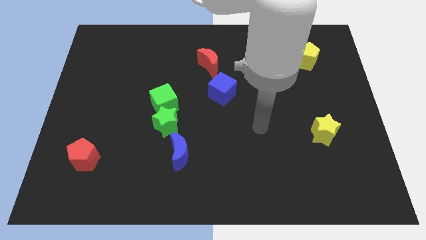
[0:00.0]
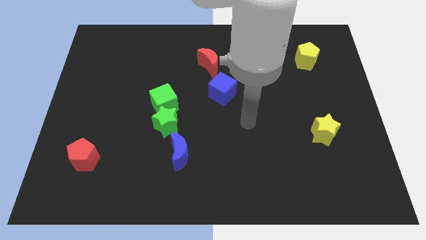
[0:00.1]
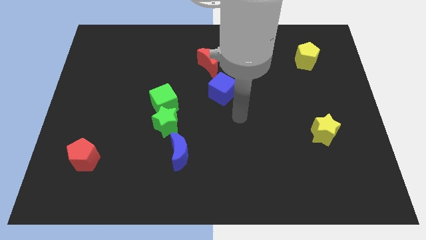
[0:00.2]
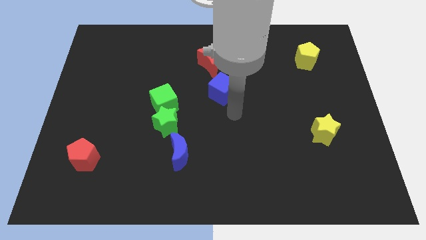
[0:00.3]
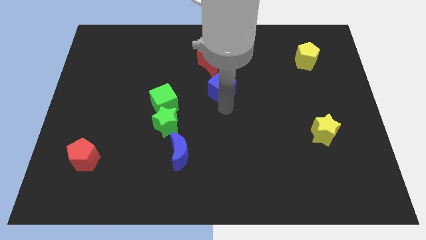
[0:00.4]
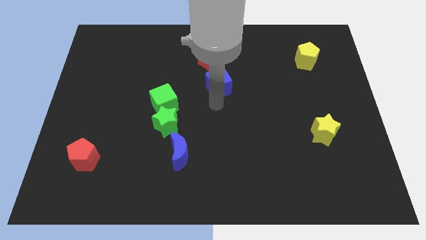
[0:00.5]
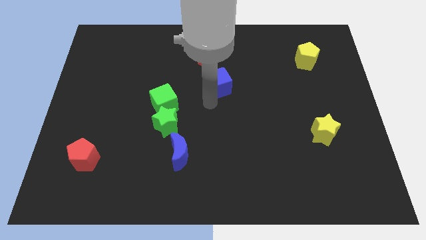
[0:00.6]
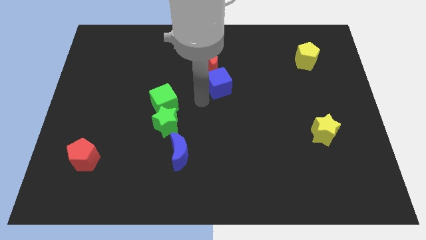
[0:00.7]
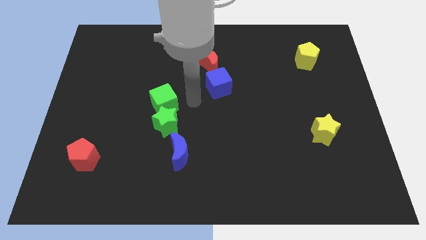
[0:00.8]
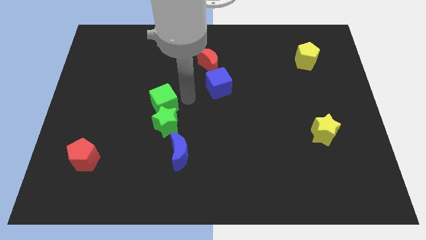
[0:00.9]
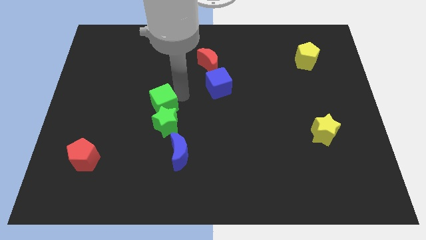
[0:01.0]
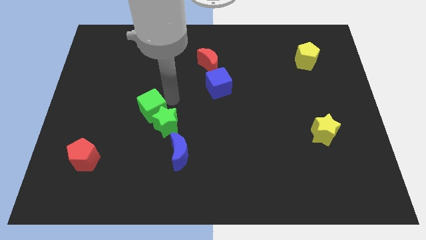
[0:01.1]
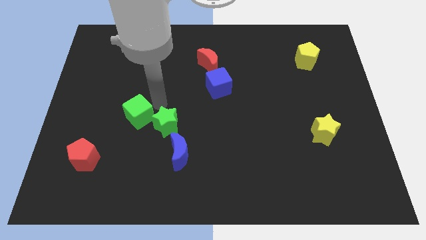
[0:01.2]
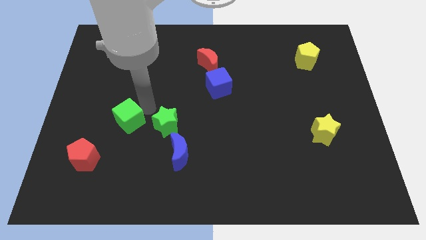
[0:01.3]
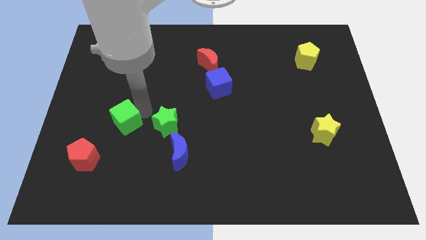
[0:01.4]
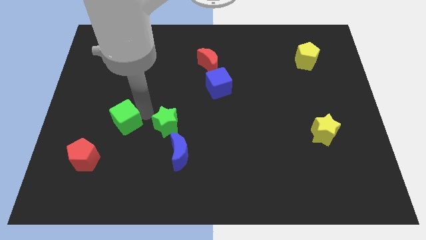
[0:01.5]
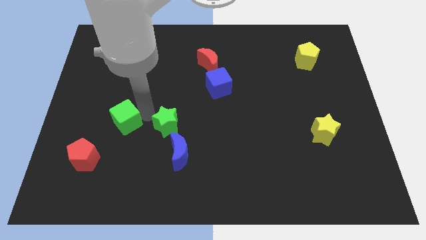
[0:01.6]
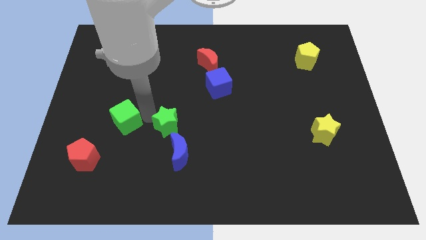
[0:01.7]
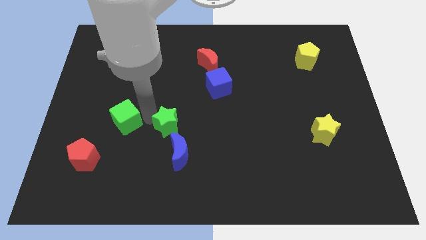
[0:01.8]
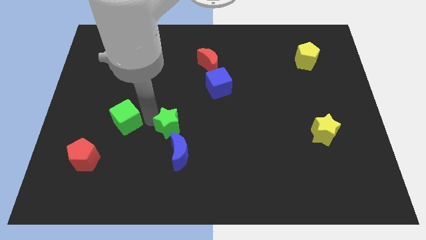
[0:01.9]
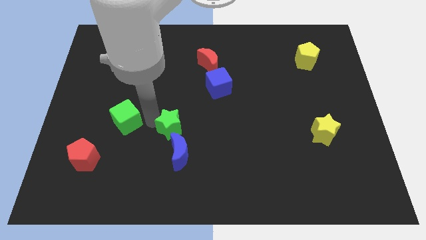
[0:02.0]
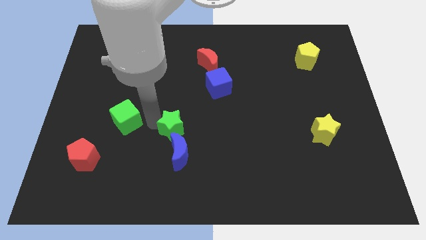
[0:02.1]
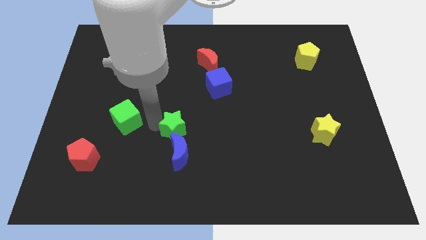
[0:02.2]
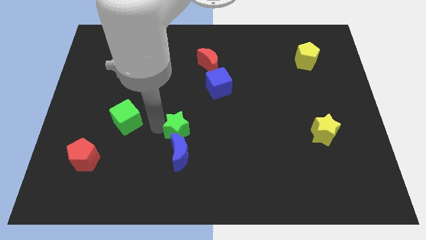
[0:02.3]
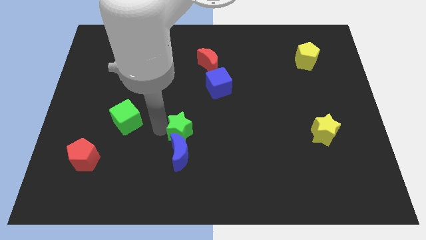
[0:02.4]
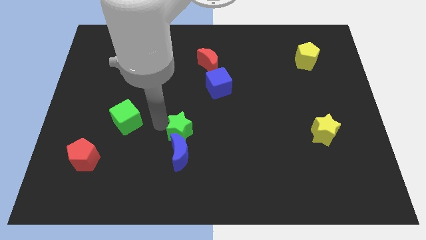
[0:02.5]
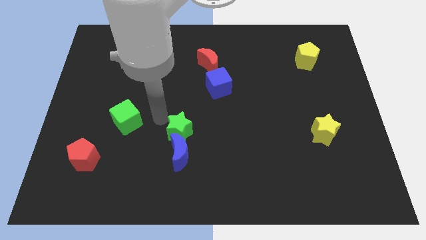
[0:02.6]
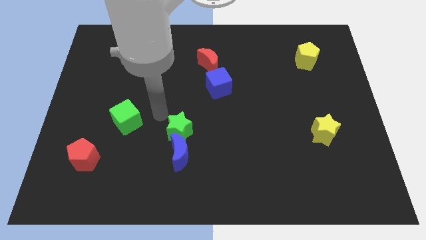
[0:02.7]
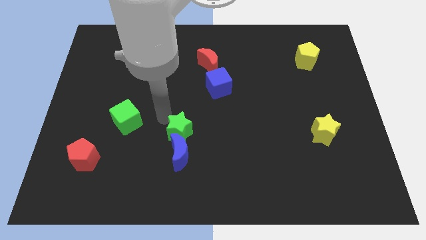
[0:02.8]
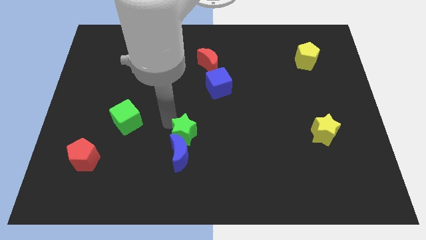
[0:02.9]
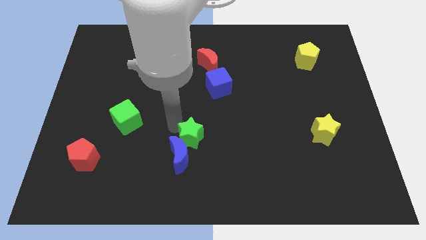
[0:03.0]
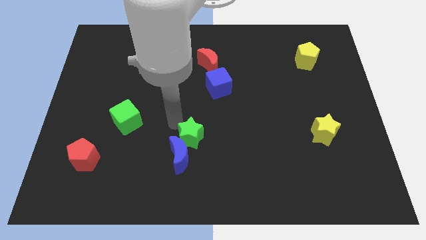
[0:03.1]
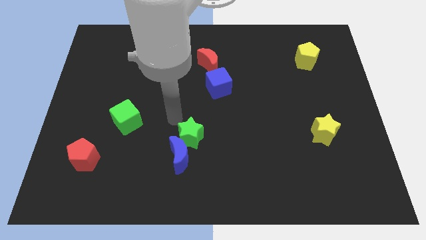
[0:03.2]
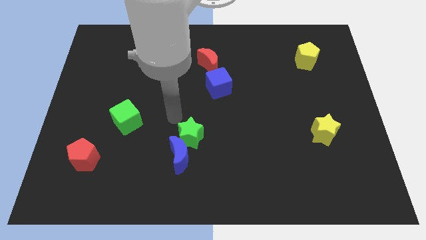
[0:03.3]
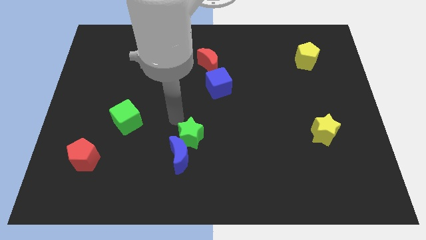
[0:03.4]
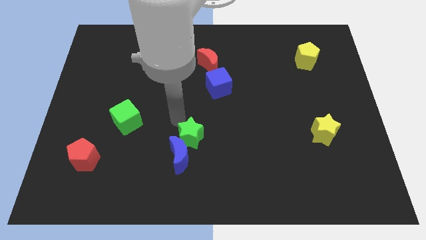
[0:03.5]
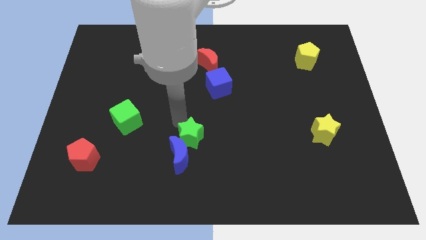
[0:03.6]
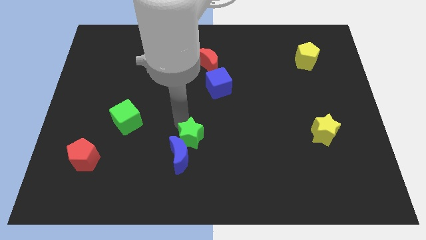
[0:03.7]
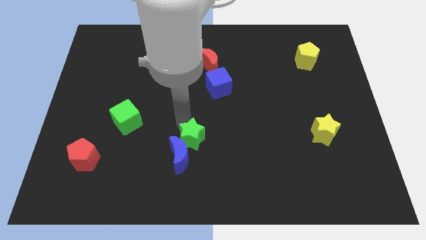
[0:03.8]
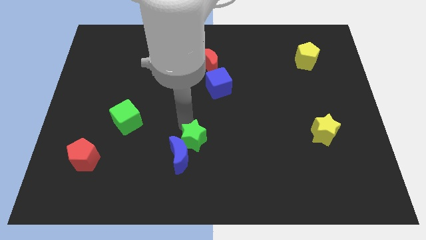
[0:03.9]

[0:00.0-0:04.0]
push the green star diagonally down and right a little bit

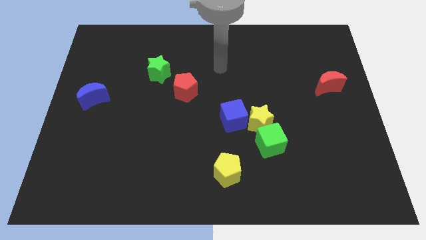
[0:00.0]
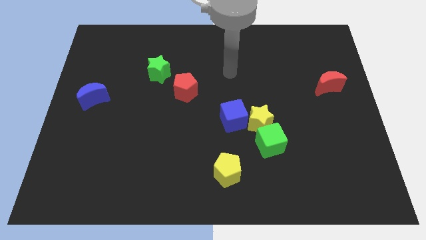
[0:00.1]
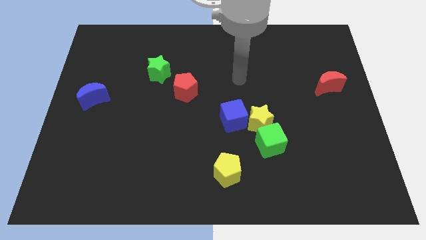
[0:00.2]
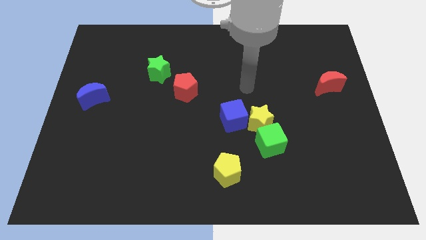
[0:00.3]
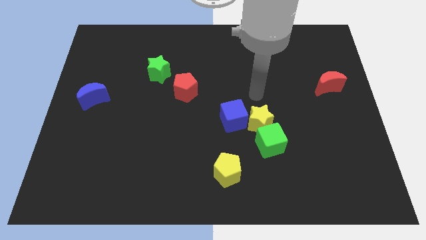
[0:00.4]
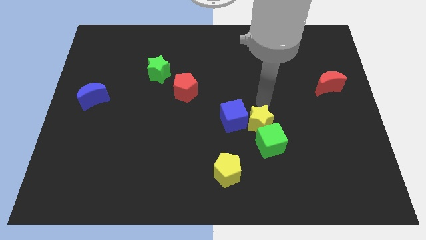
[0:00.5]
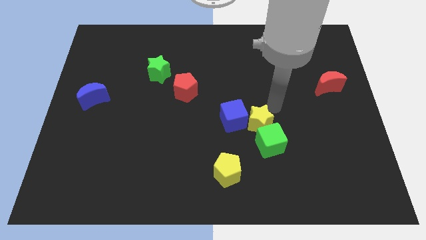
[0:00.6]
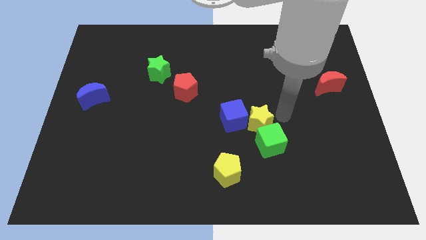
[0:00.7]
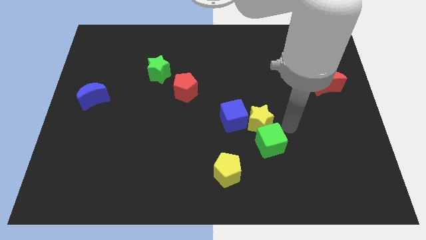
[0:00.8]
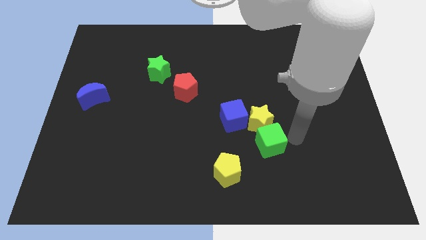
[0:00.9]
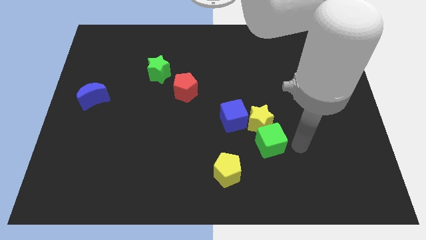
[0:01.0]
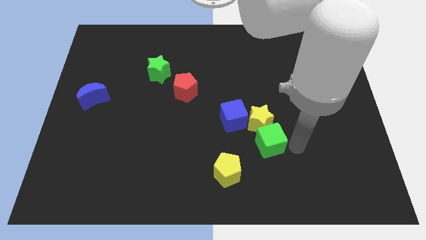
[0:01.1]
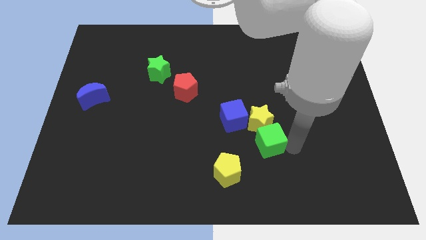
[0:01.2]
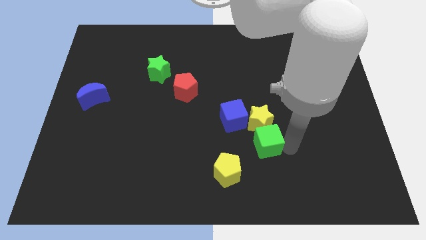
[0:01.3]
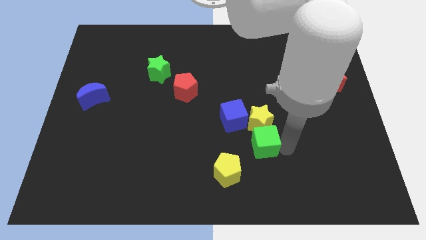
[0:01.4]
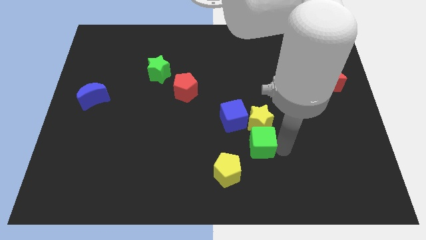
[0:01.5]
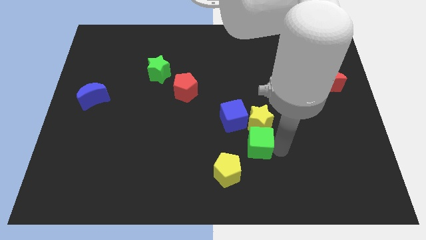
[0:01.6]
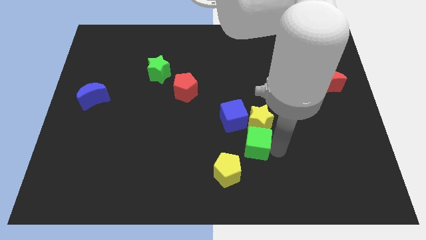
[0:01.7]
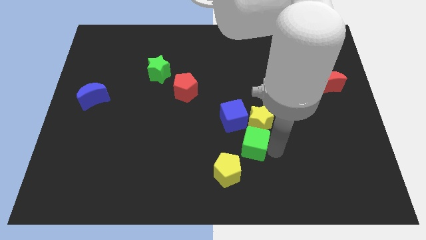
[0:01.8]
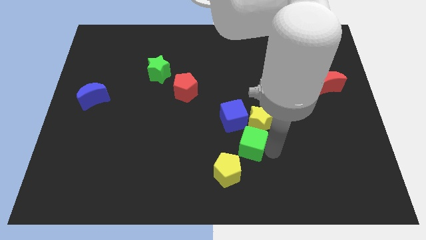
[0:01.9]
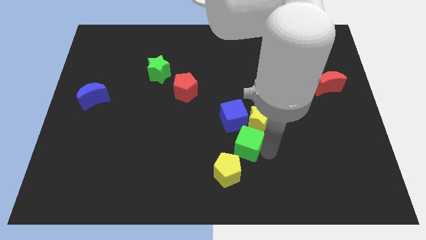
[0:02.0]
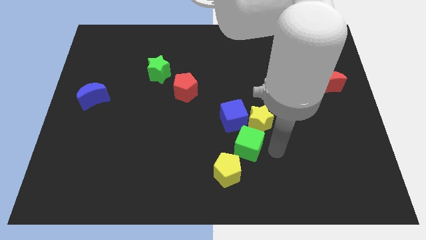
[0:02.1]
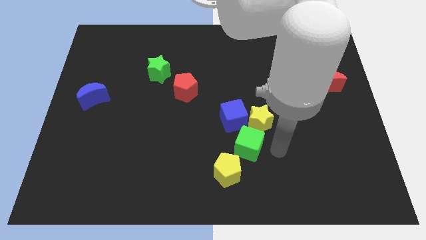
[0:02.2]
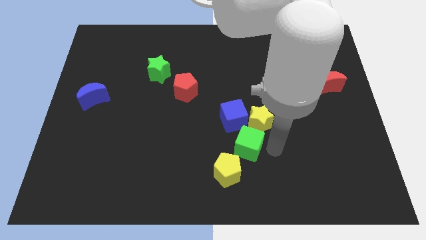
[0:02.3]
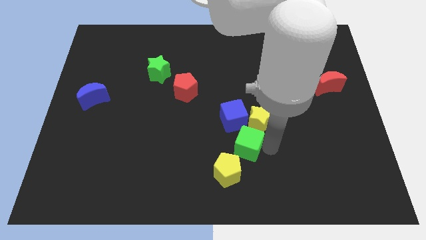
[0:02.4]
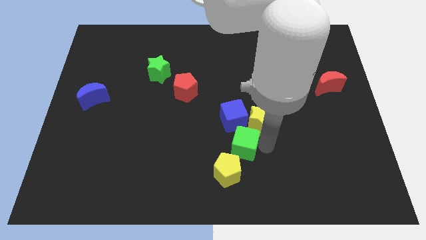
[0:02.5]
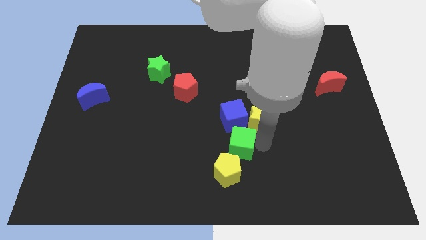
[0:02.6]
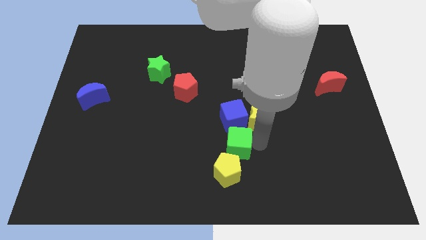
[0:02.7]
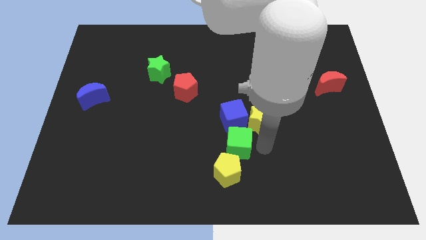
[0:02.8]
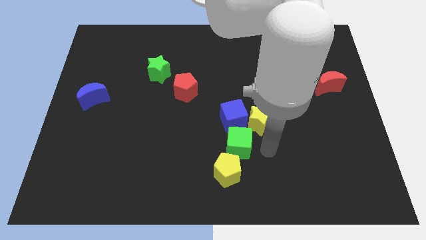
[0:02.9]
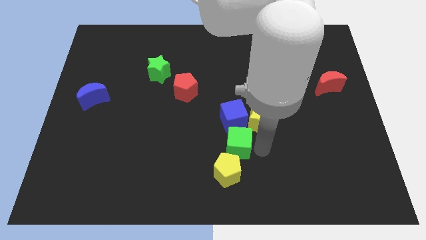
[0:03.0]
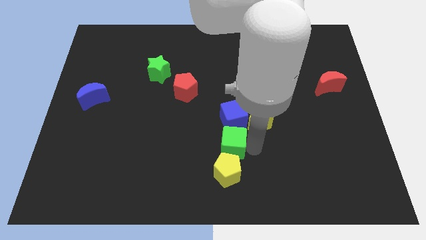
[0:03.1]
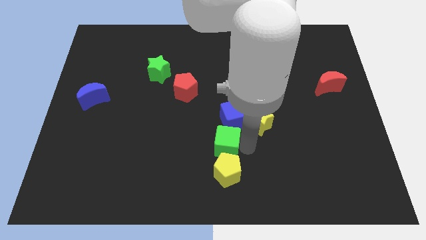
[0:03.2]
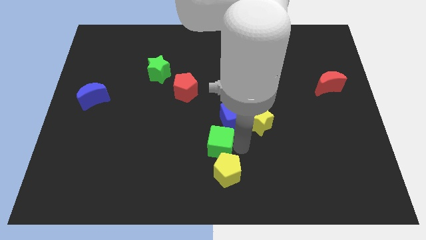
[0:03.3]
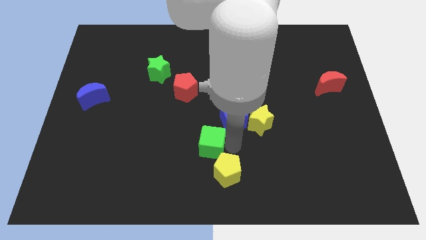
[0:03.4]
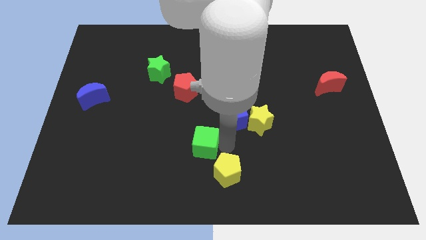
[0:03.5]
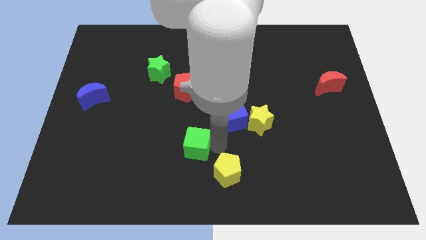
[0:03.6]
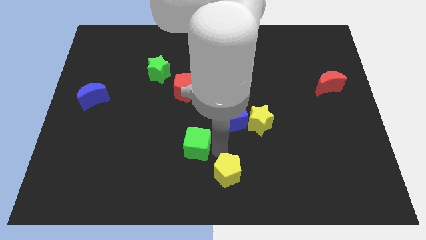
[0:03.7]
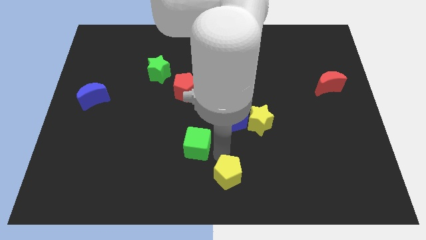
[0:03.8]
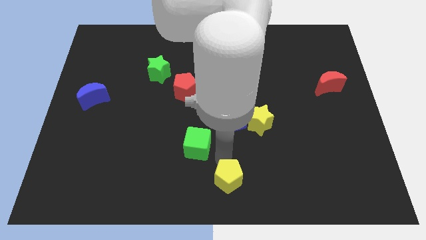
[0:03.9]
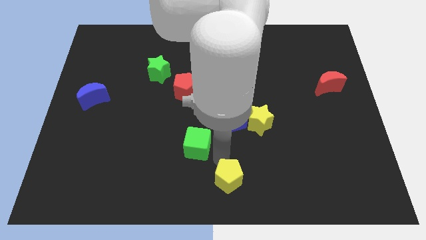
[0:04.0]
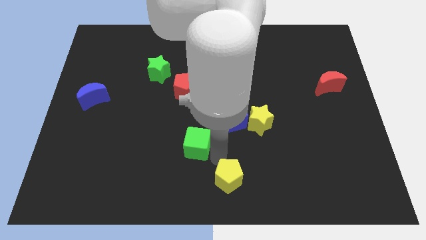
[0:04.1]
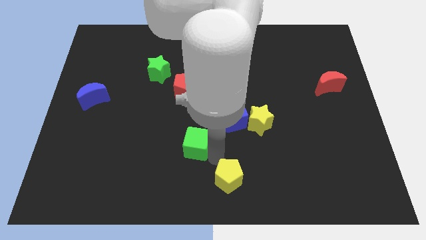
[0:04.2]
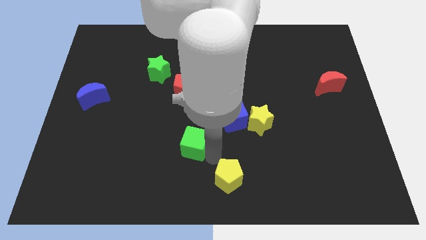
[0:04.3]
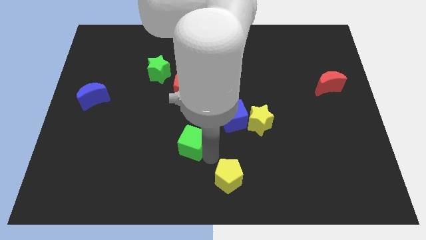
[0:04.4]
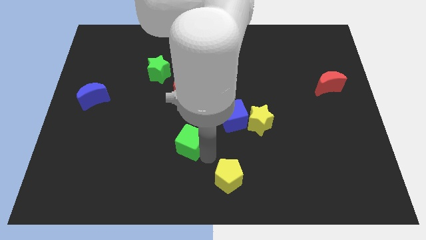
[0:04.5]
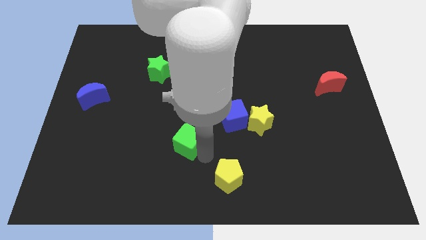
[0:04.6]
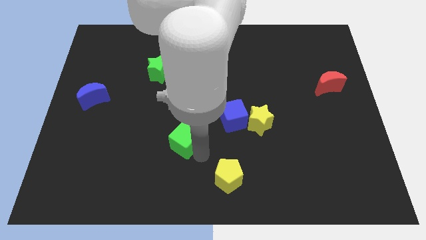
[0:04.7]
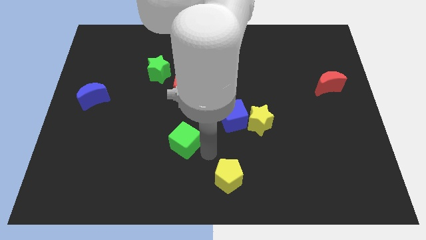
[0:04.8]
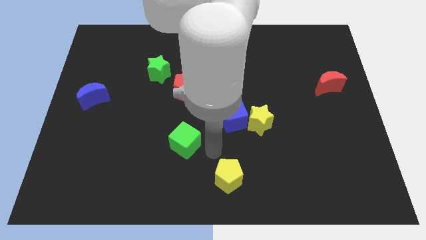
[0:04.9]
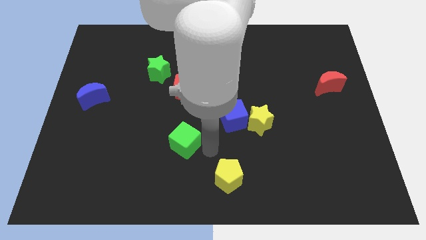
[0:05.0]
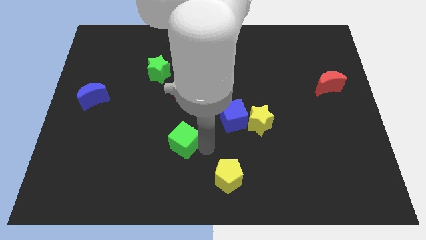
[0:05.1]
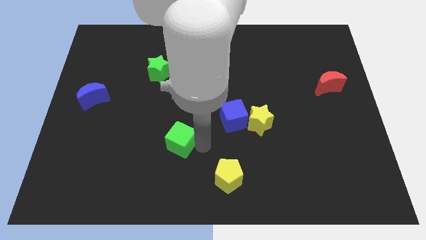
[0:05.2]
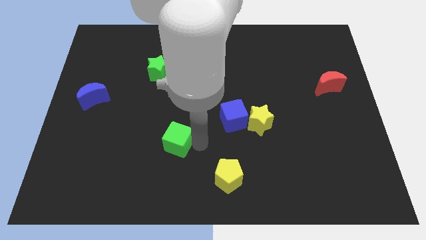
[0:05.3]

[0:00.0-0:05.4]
push the green cube to the left
